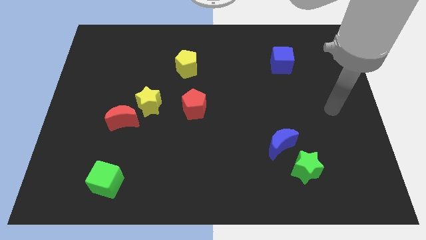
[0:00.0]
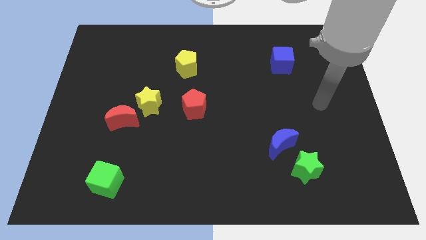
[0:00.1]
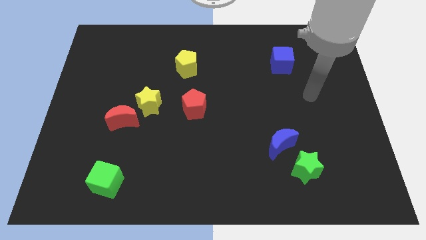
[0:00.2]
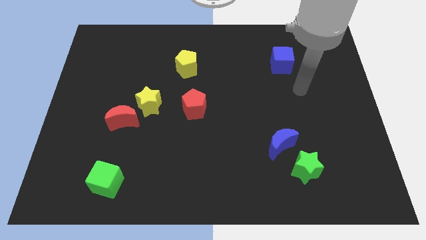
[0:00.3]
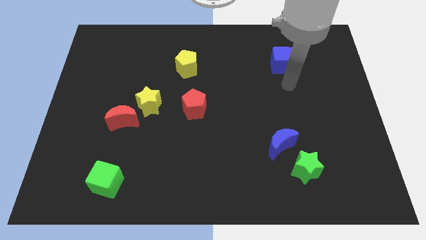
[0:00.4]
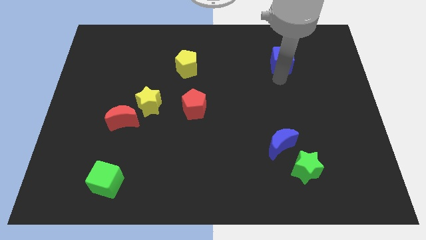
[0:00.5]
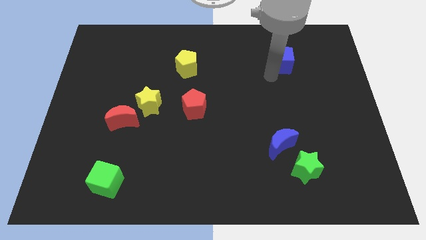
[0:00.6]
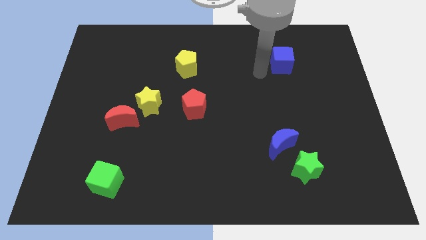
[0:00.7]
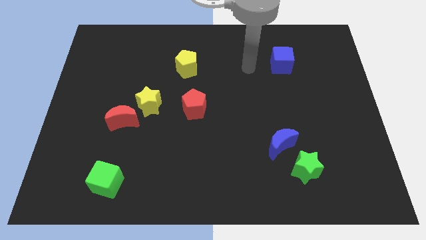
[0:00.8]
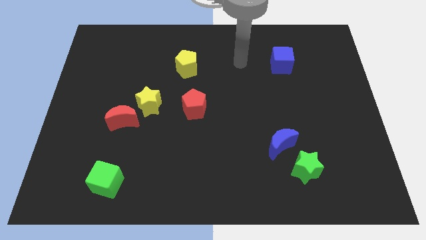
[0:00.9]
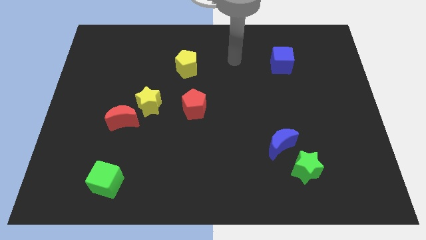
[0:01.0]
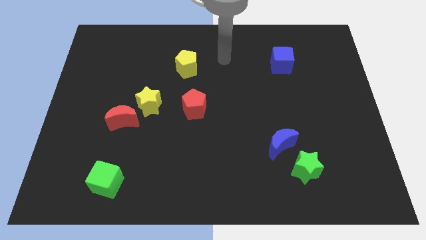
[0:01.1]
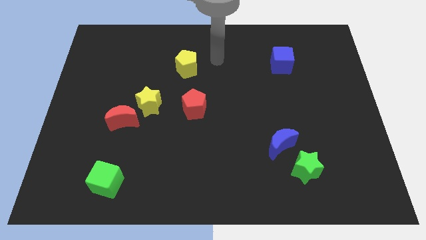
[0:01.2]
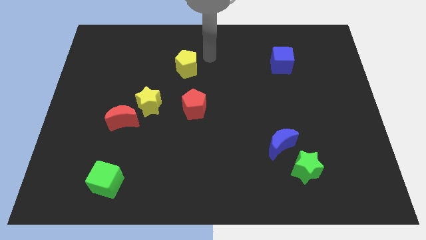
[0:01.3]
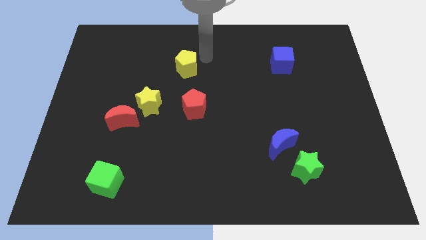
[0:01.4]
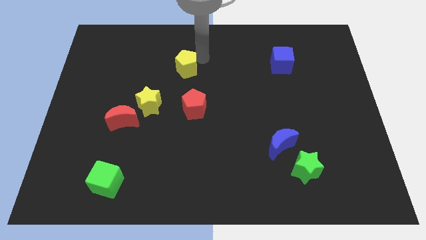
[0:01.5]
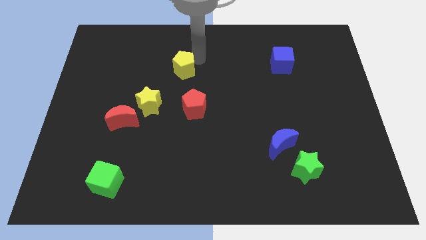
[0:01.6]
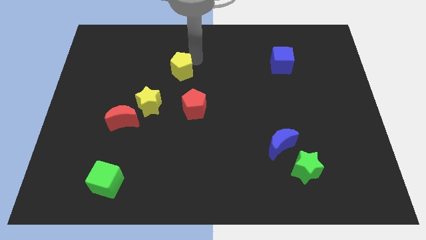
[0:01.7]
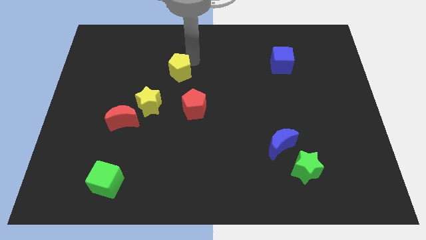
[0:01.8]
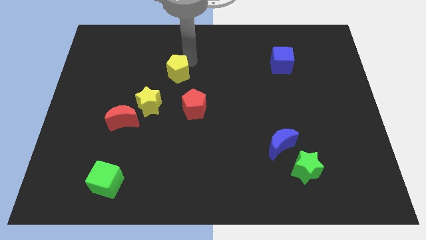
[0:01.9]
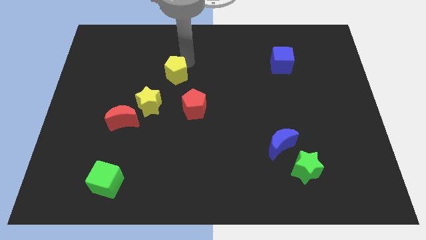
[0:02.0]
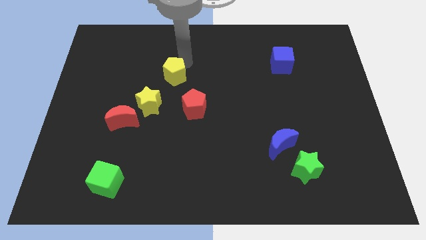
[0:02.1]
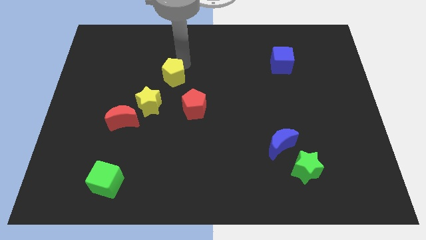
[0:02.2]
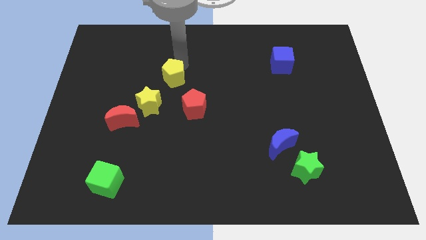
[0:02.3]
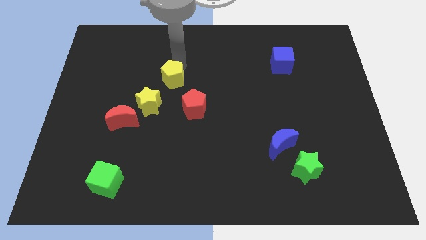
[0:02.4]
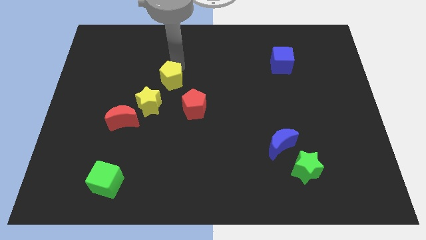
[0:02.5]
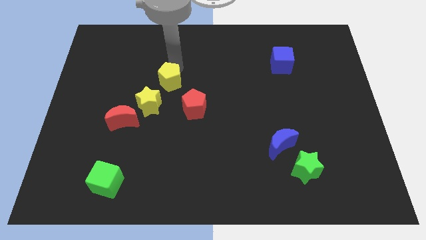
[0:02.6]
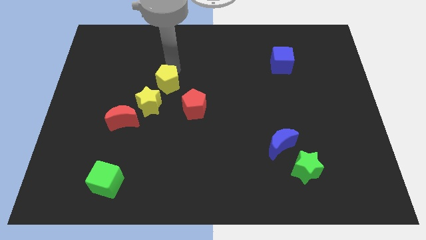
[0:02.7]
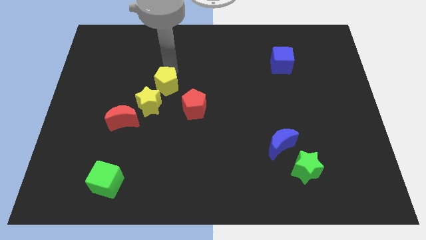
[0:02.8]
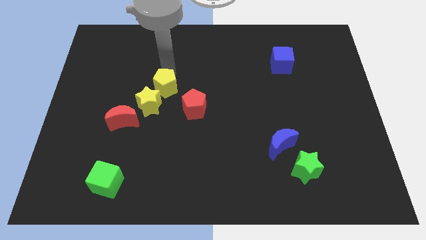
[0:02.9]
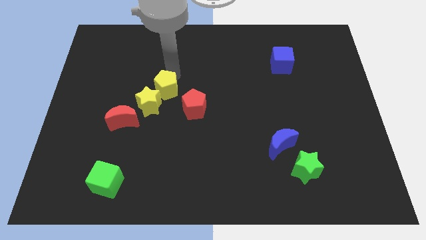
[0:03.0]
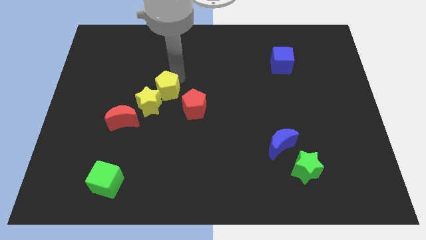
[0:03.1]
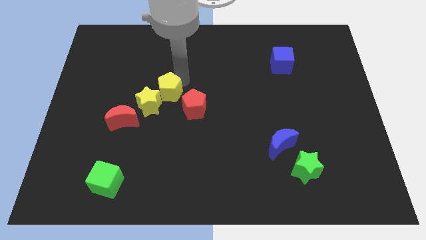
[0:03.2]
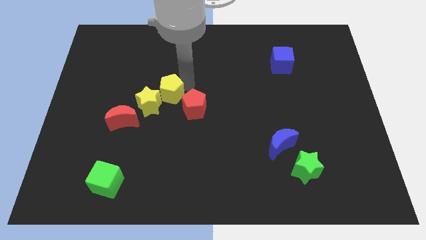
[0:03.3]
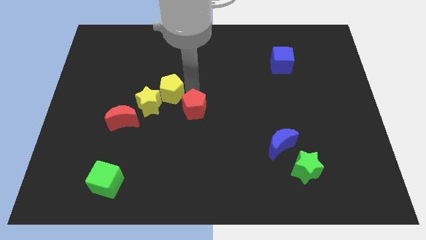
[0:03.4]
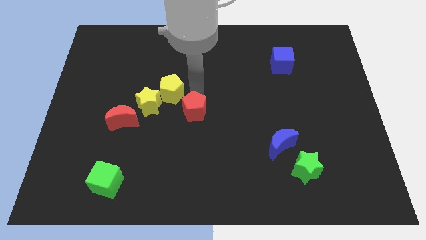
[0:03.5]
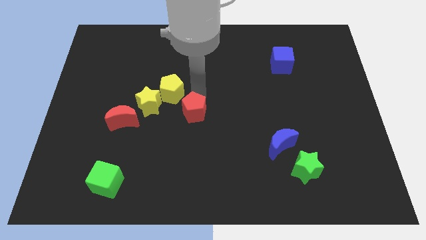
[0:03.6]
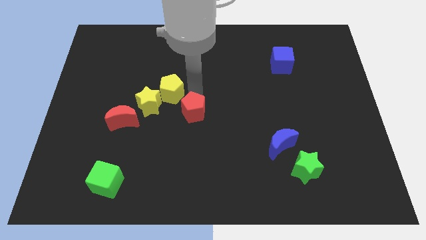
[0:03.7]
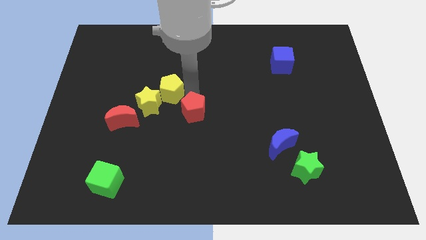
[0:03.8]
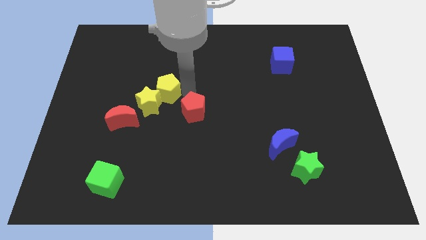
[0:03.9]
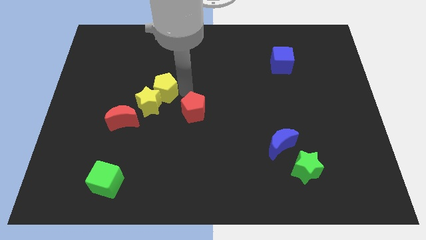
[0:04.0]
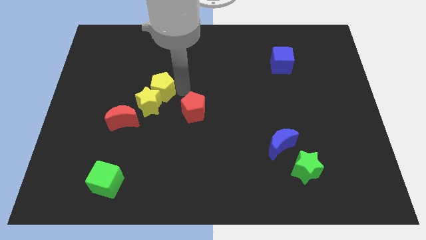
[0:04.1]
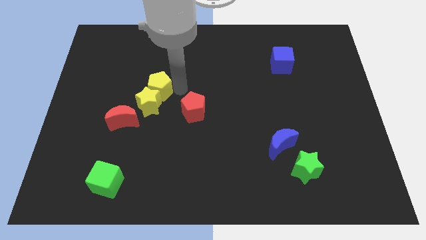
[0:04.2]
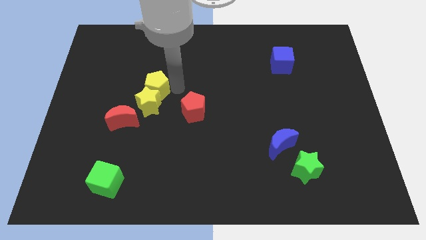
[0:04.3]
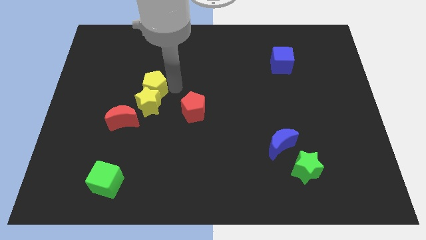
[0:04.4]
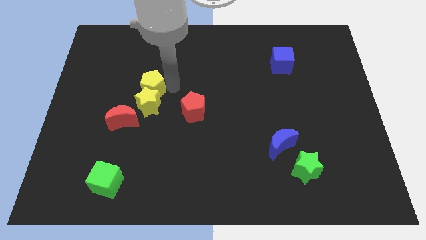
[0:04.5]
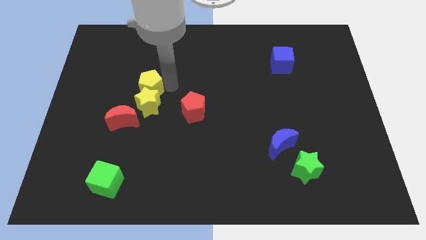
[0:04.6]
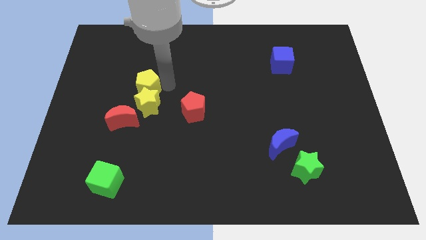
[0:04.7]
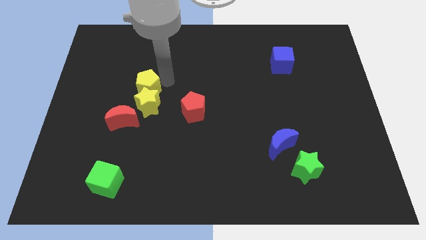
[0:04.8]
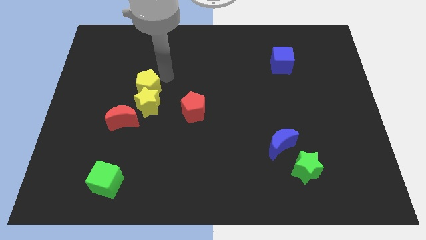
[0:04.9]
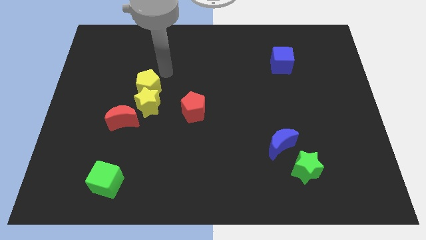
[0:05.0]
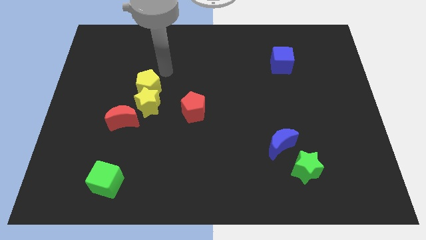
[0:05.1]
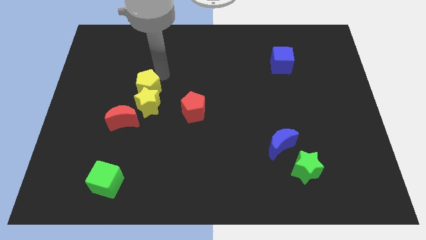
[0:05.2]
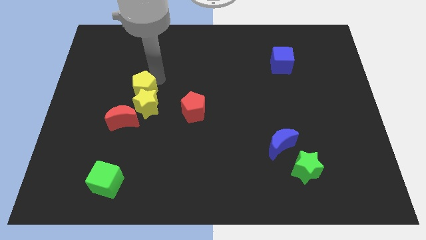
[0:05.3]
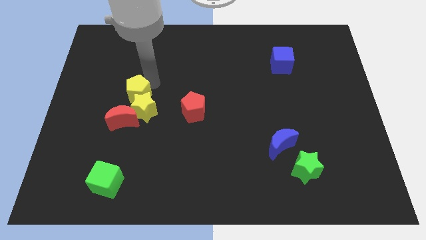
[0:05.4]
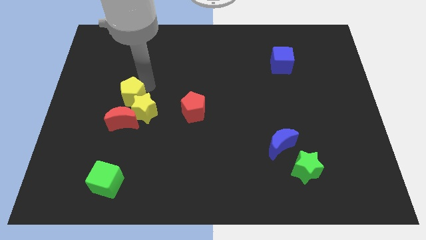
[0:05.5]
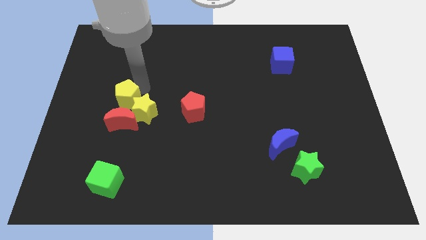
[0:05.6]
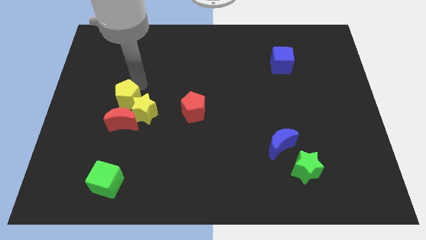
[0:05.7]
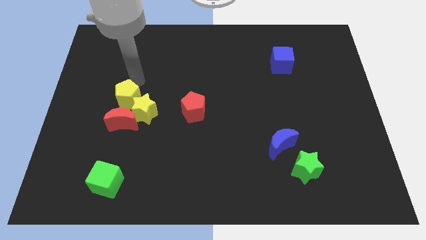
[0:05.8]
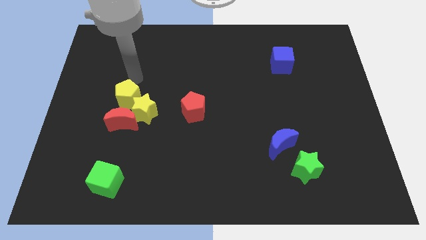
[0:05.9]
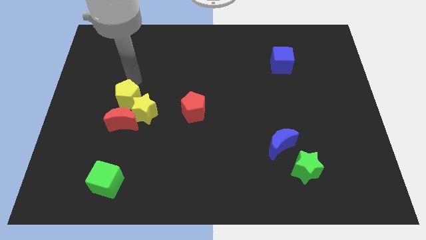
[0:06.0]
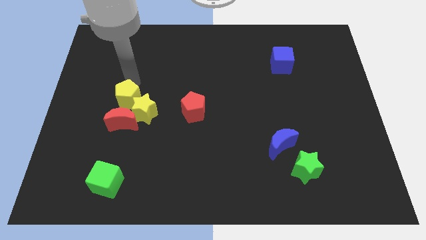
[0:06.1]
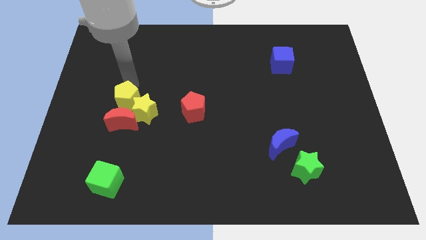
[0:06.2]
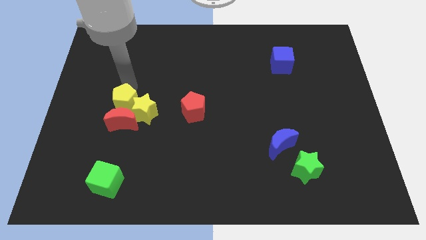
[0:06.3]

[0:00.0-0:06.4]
move the yellow pentagon to the red moon
